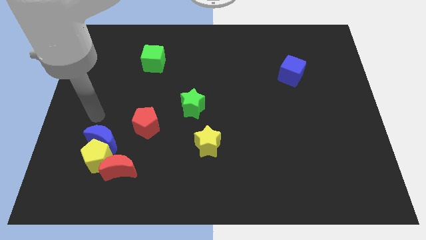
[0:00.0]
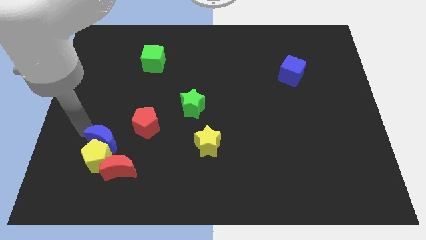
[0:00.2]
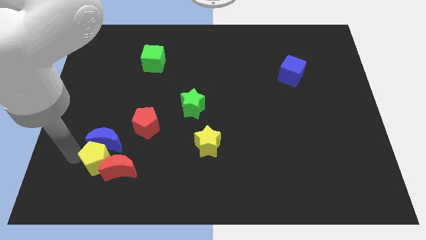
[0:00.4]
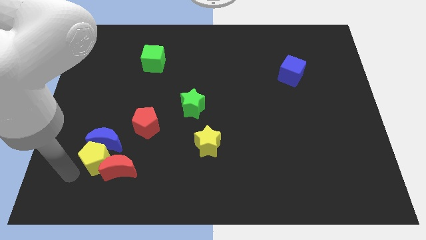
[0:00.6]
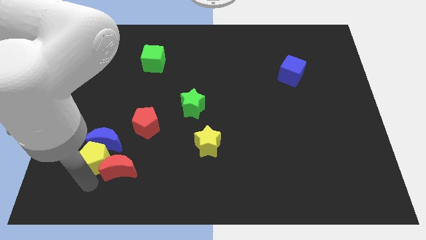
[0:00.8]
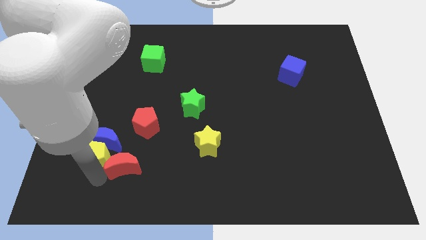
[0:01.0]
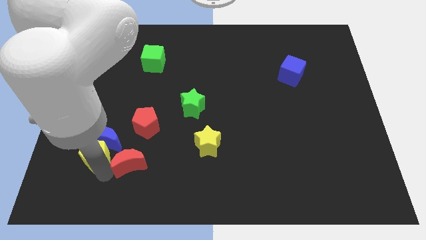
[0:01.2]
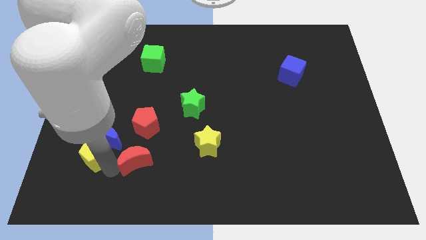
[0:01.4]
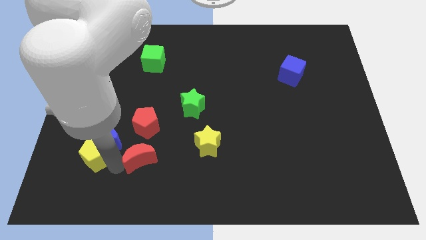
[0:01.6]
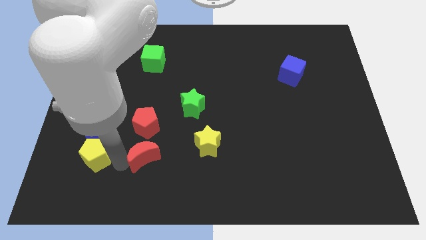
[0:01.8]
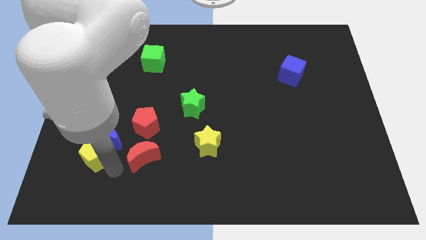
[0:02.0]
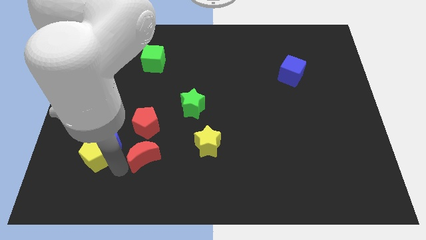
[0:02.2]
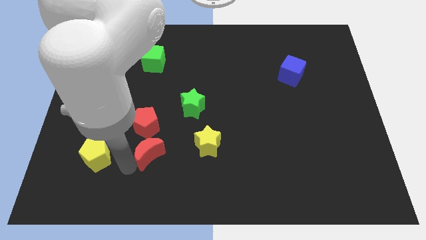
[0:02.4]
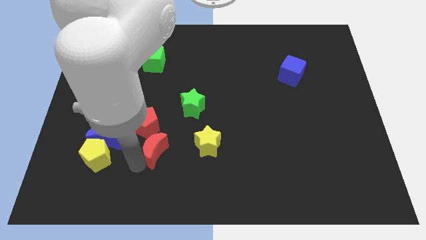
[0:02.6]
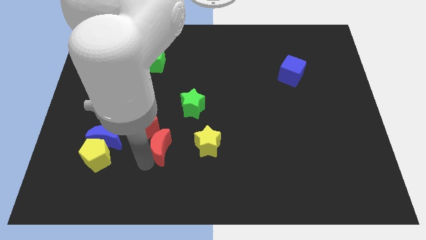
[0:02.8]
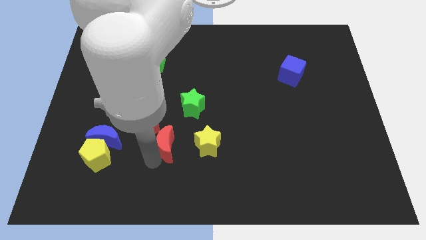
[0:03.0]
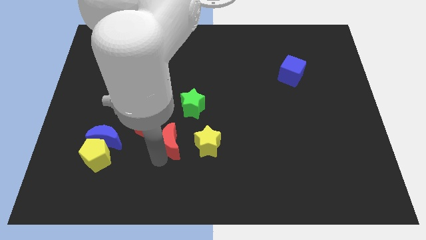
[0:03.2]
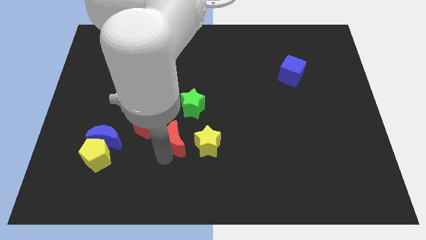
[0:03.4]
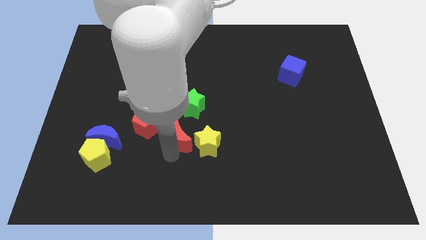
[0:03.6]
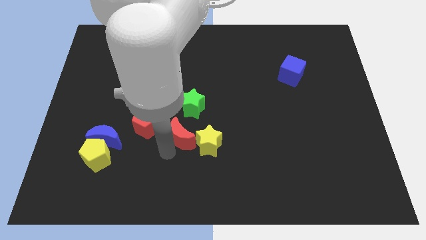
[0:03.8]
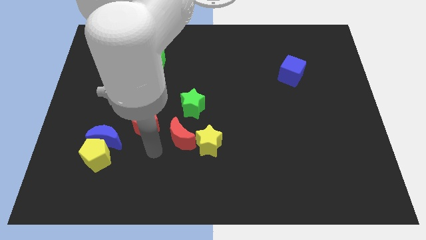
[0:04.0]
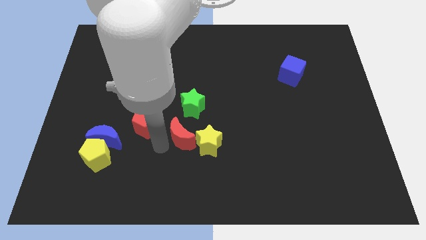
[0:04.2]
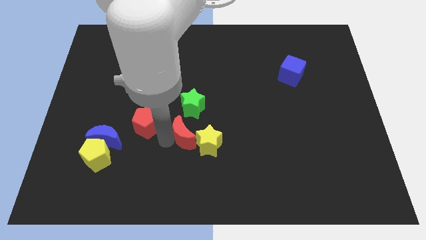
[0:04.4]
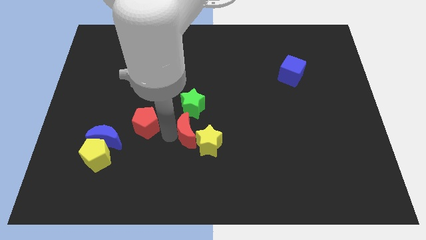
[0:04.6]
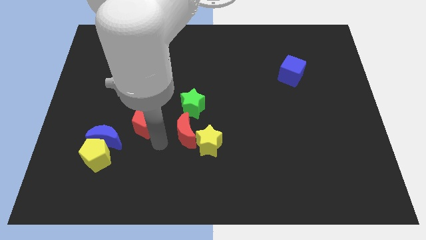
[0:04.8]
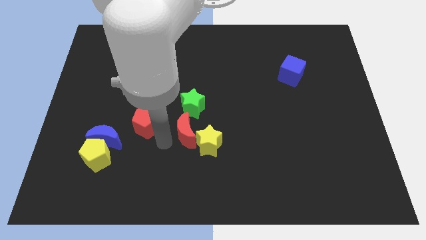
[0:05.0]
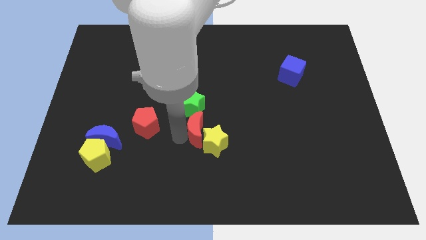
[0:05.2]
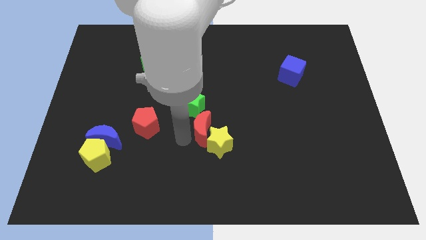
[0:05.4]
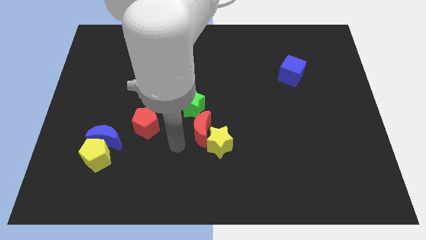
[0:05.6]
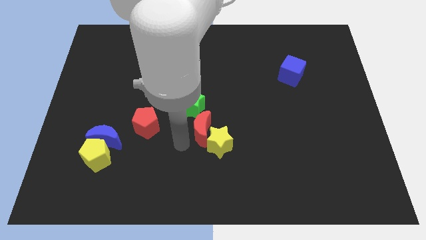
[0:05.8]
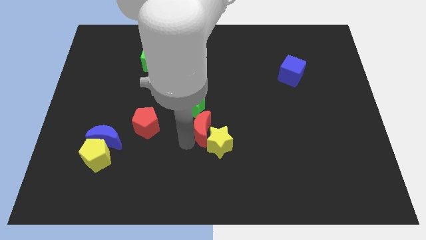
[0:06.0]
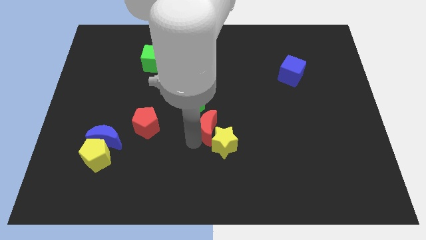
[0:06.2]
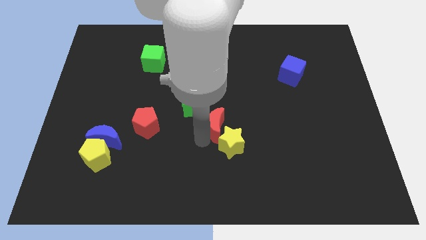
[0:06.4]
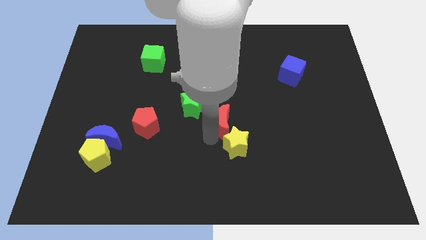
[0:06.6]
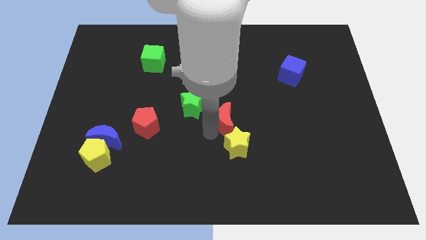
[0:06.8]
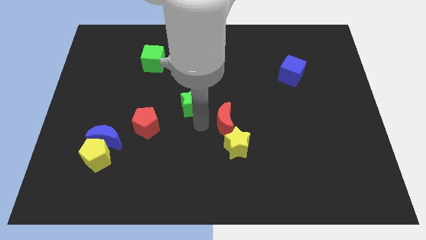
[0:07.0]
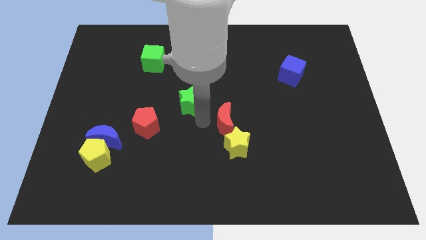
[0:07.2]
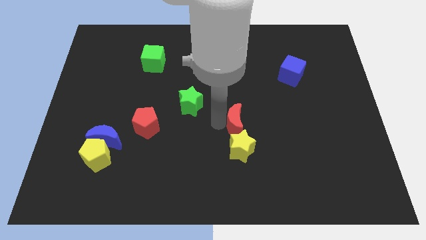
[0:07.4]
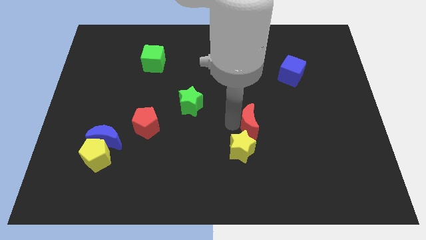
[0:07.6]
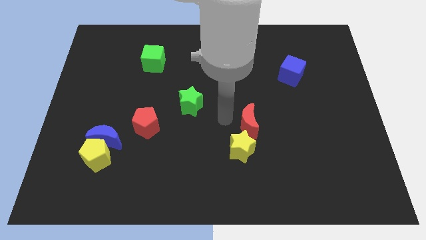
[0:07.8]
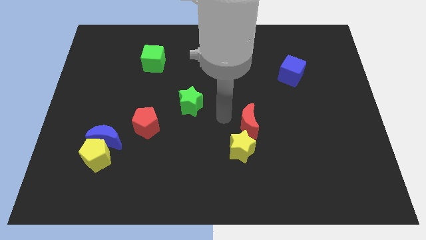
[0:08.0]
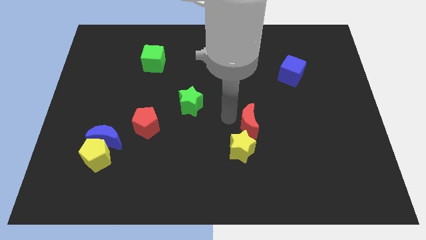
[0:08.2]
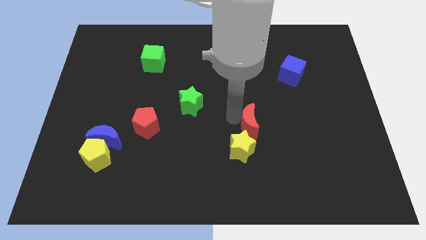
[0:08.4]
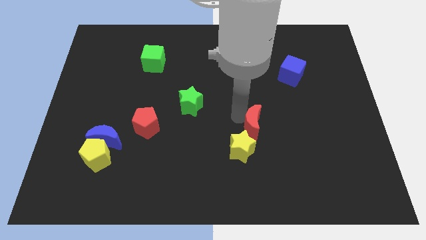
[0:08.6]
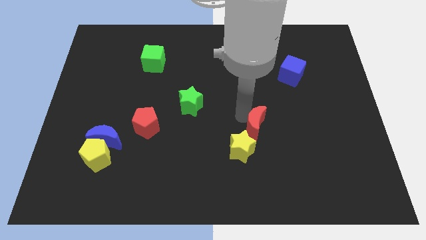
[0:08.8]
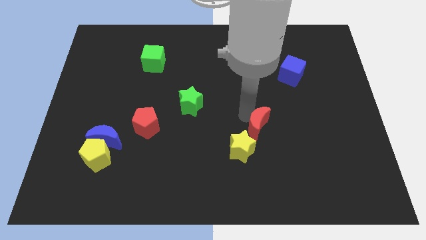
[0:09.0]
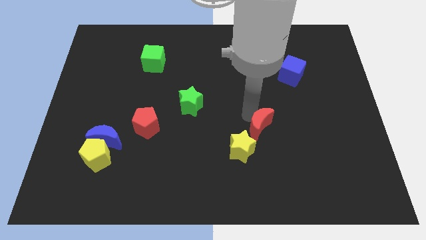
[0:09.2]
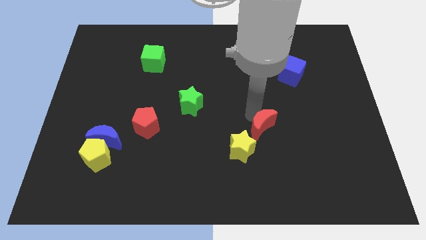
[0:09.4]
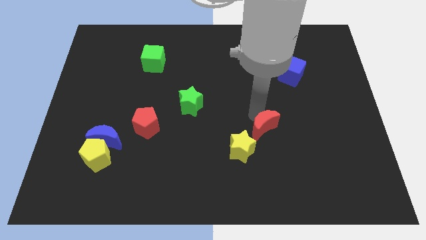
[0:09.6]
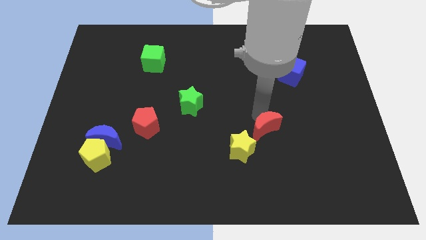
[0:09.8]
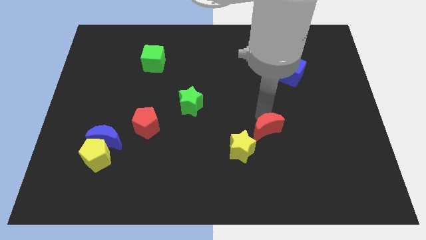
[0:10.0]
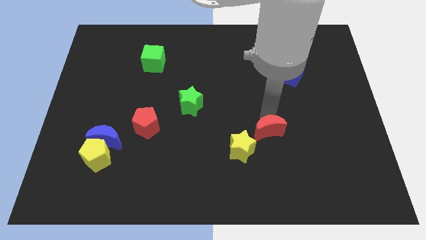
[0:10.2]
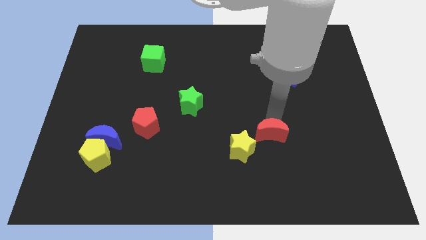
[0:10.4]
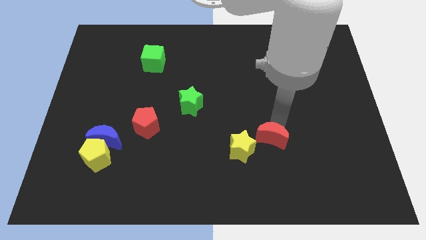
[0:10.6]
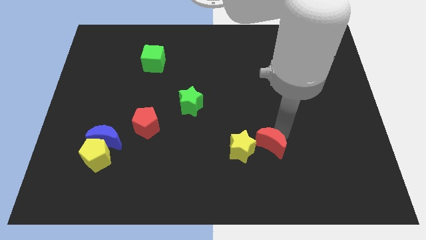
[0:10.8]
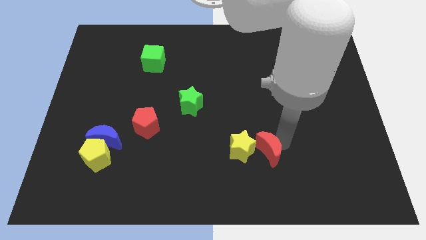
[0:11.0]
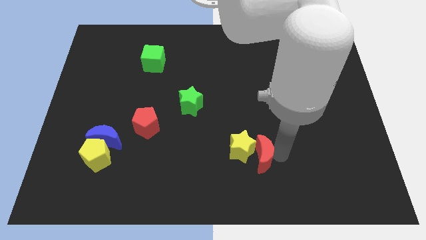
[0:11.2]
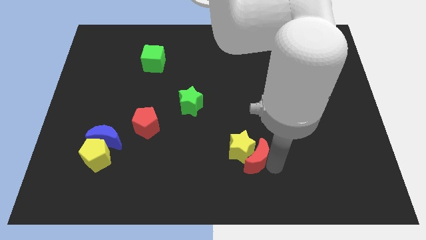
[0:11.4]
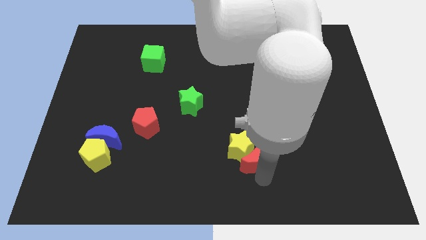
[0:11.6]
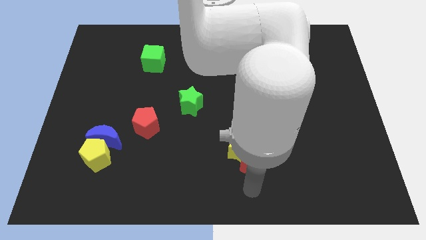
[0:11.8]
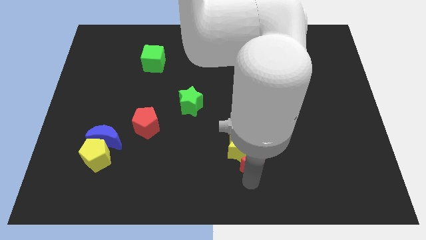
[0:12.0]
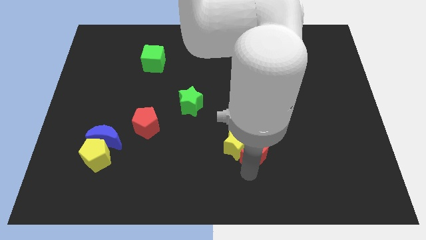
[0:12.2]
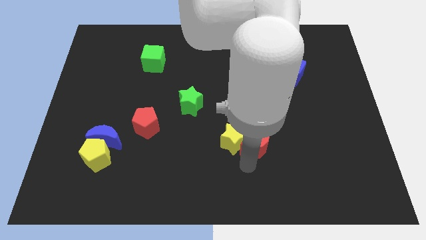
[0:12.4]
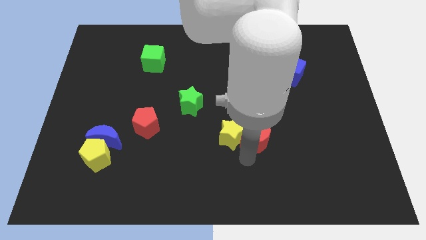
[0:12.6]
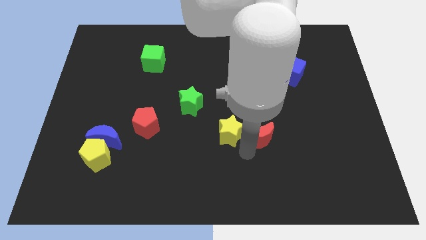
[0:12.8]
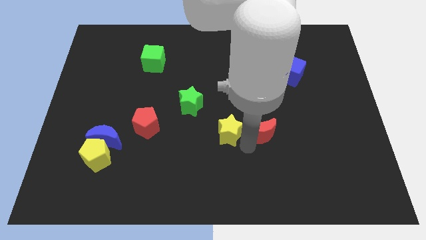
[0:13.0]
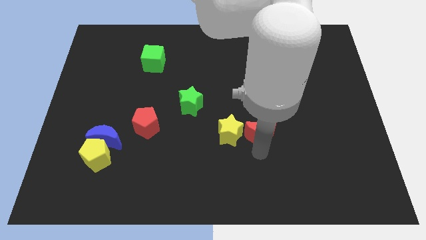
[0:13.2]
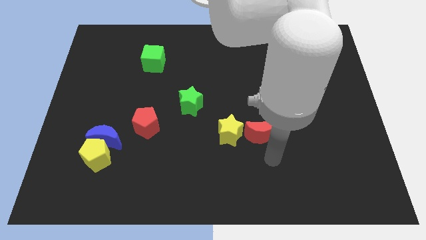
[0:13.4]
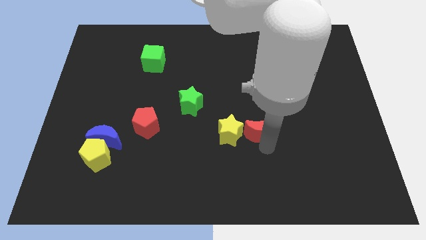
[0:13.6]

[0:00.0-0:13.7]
push the red moon diagonally up and to the right of the yellow star
